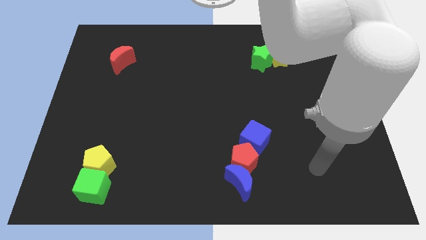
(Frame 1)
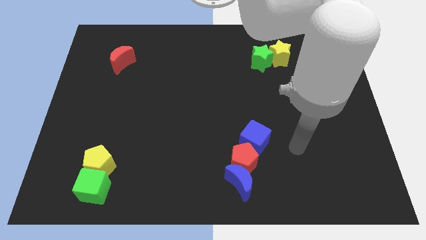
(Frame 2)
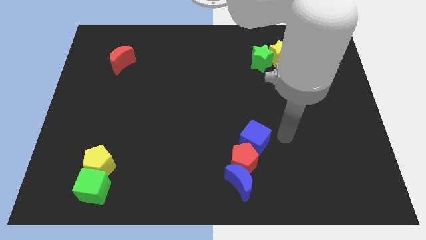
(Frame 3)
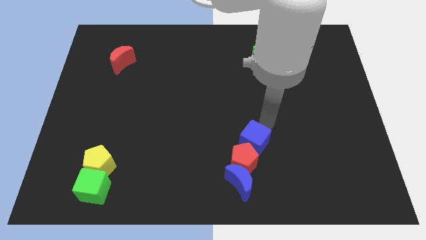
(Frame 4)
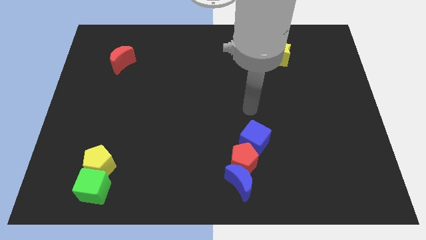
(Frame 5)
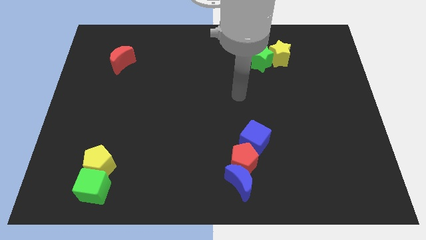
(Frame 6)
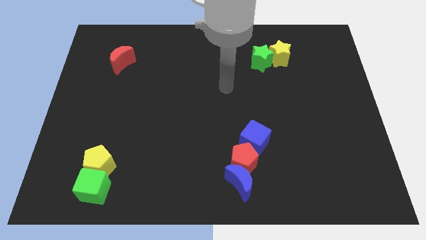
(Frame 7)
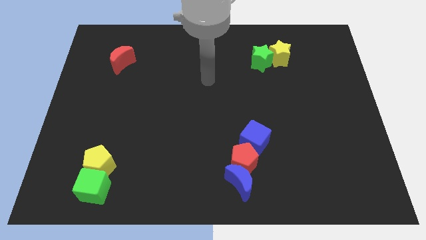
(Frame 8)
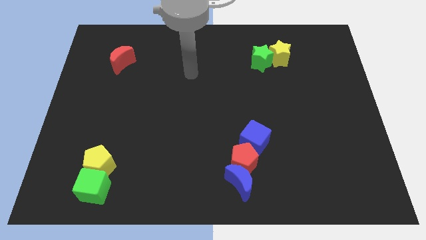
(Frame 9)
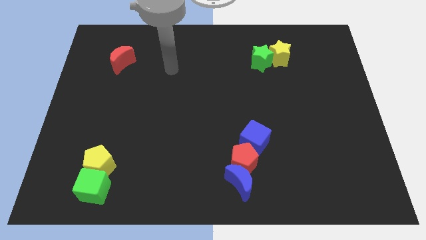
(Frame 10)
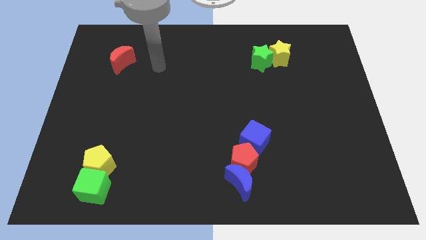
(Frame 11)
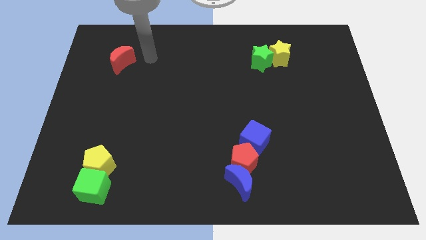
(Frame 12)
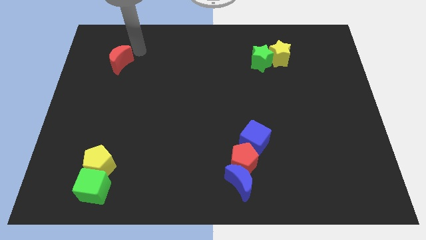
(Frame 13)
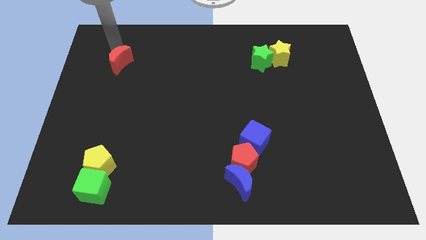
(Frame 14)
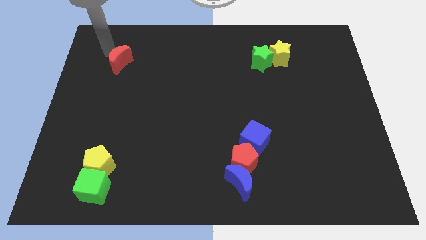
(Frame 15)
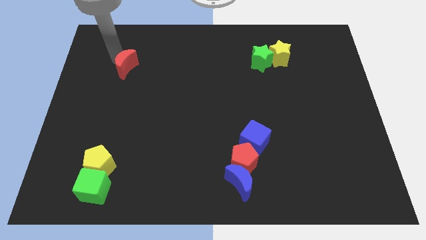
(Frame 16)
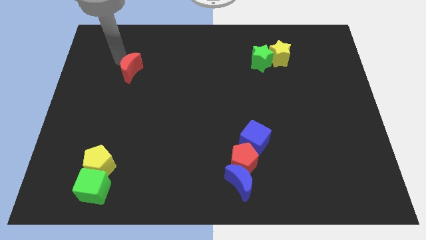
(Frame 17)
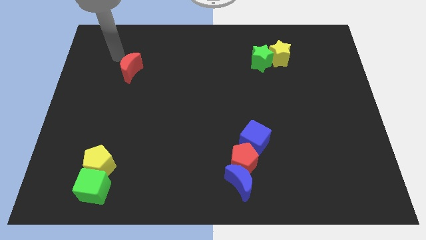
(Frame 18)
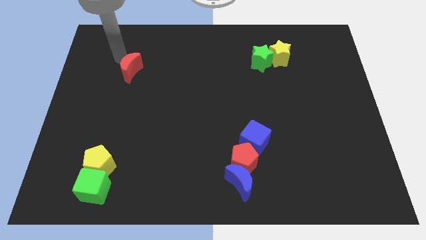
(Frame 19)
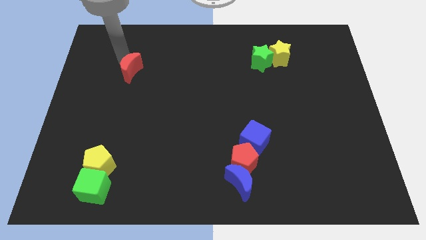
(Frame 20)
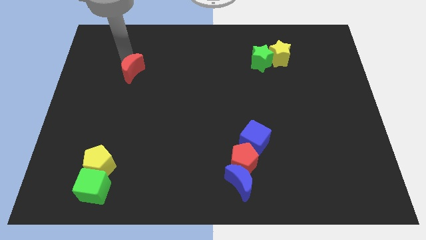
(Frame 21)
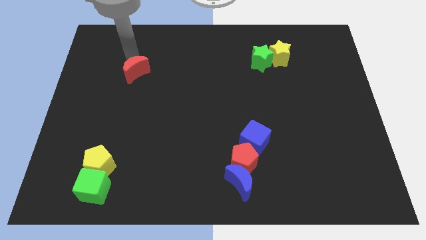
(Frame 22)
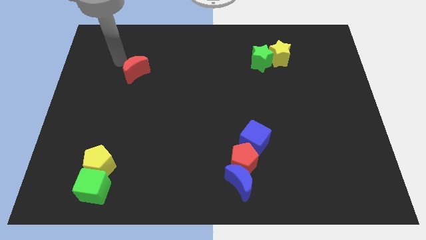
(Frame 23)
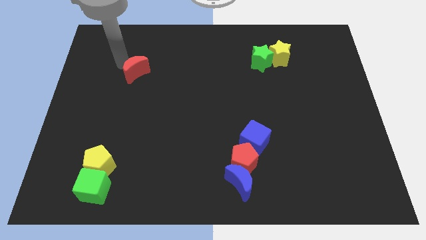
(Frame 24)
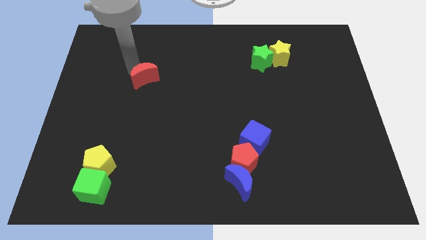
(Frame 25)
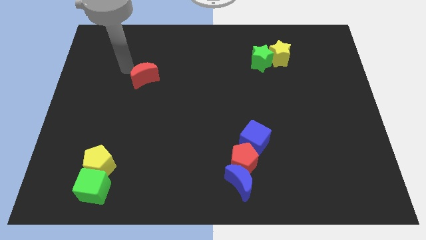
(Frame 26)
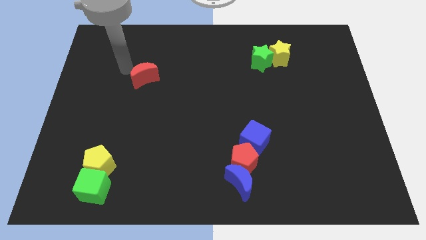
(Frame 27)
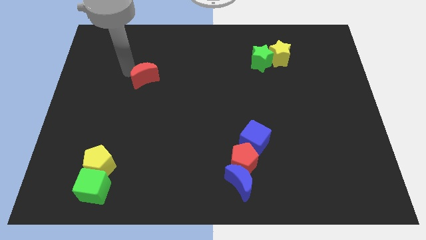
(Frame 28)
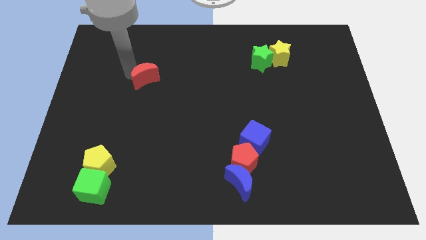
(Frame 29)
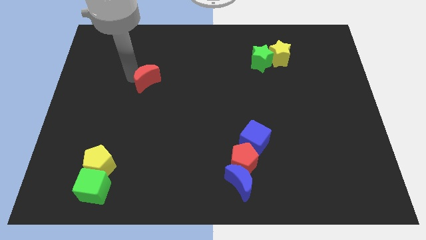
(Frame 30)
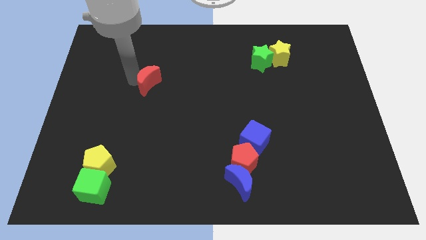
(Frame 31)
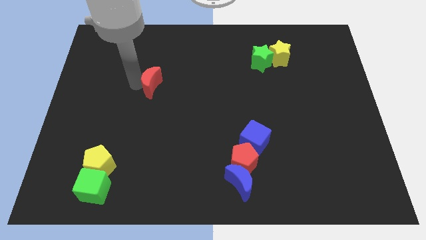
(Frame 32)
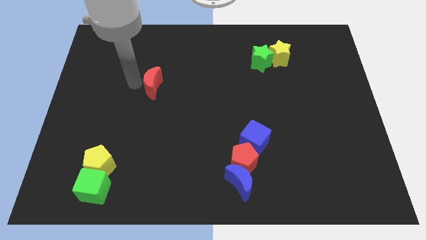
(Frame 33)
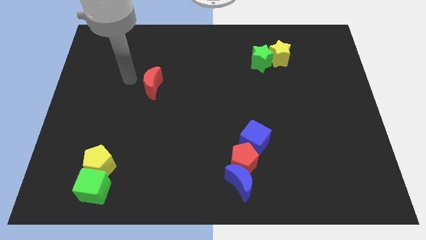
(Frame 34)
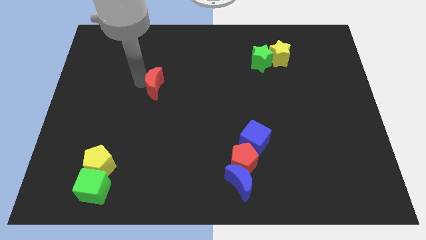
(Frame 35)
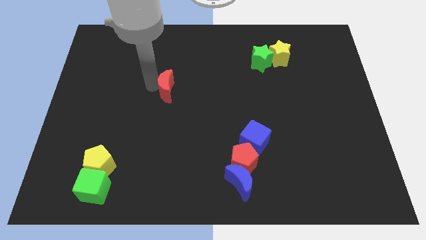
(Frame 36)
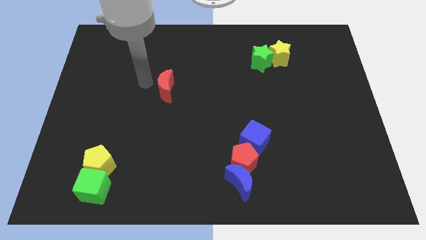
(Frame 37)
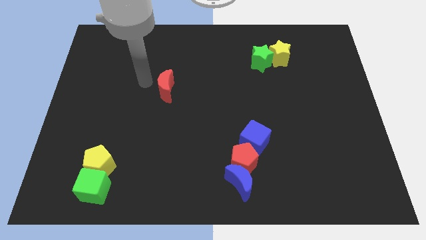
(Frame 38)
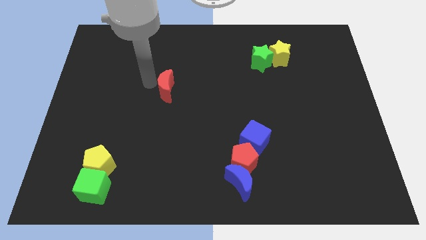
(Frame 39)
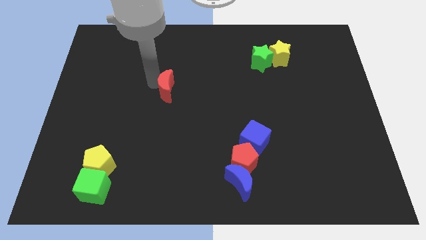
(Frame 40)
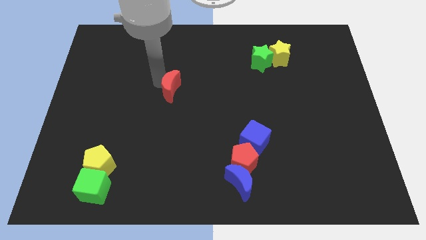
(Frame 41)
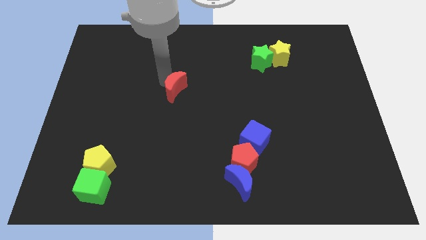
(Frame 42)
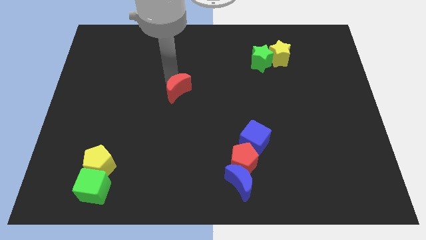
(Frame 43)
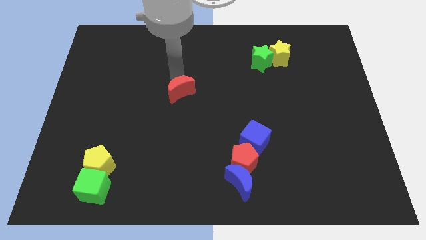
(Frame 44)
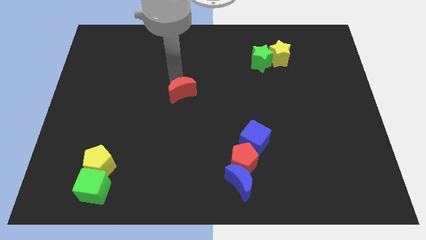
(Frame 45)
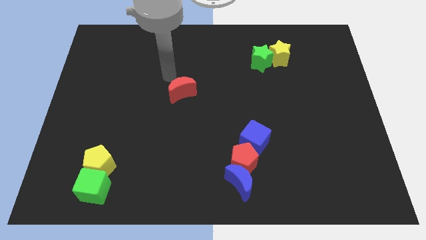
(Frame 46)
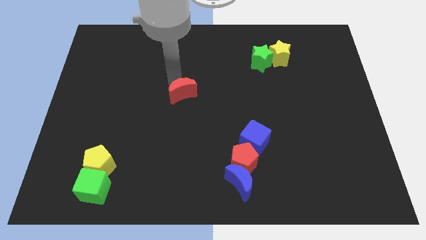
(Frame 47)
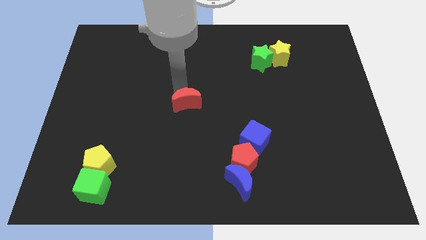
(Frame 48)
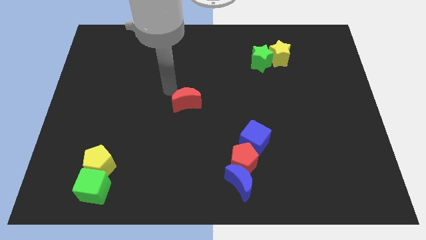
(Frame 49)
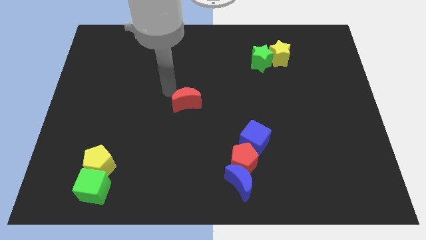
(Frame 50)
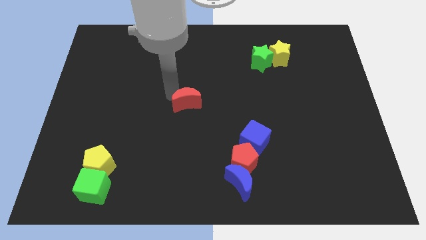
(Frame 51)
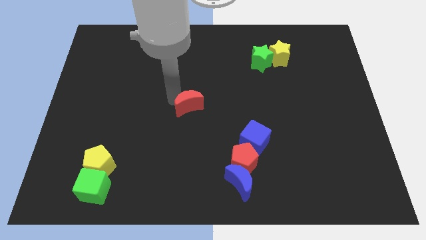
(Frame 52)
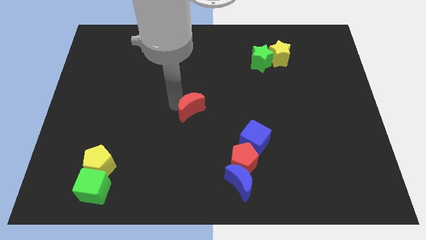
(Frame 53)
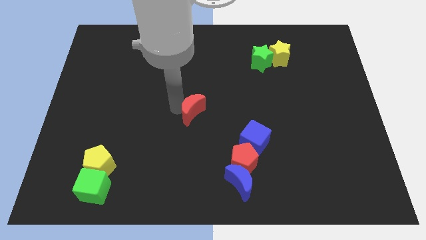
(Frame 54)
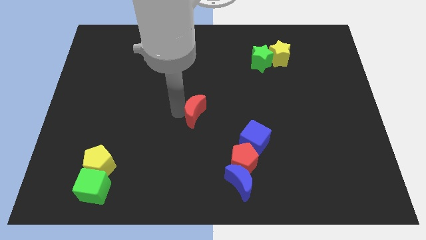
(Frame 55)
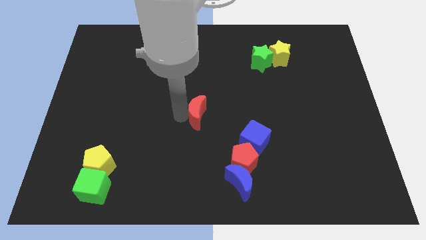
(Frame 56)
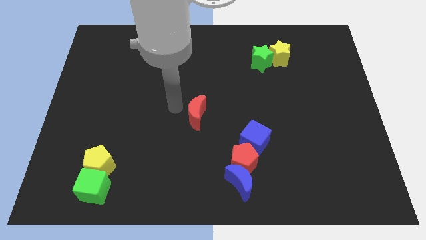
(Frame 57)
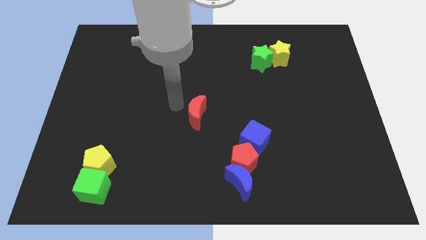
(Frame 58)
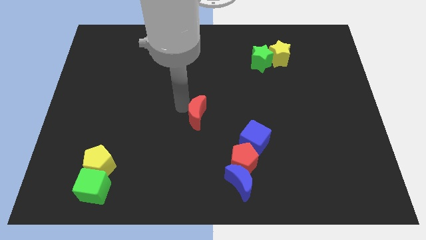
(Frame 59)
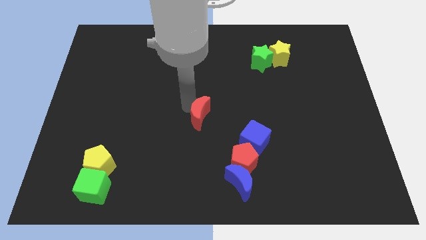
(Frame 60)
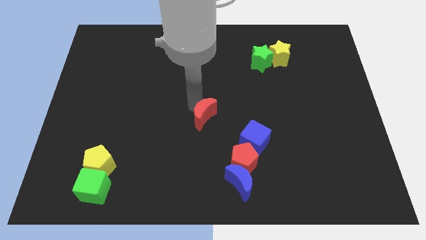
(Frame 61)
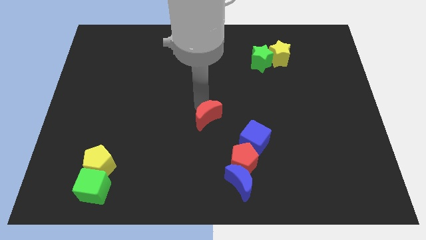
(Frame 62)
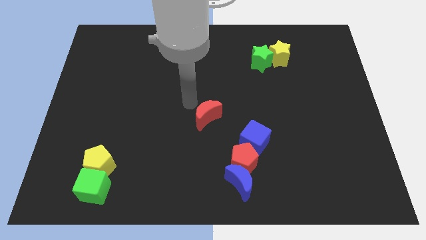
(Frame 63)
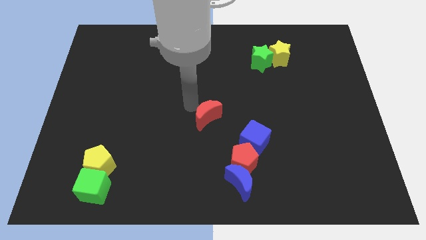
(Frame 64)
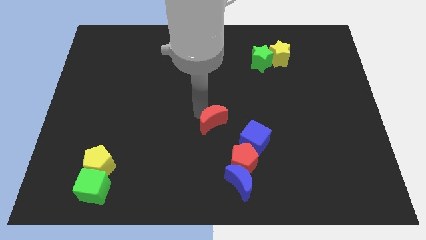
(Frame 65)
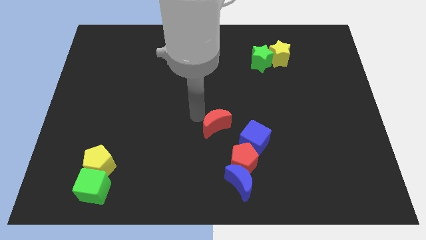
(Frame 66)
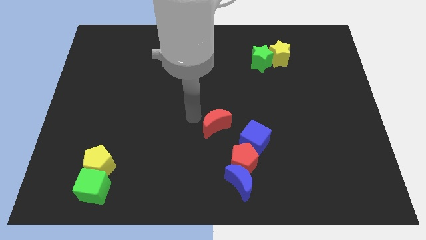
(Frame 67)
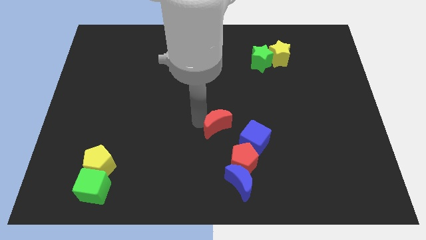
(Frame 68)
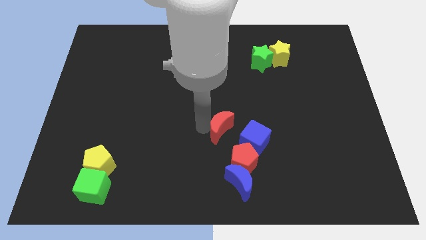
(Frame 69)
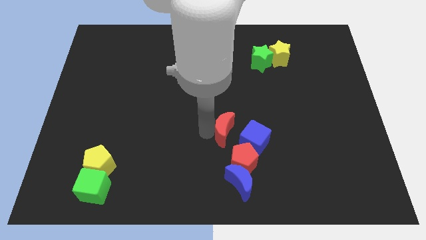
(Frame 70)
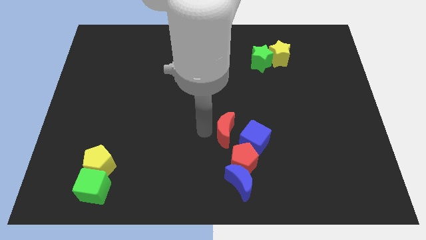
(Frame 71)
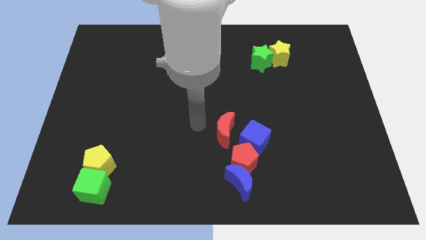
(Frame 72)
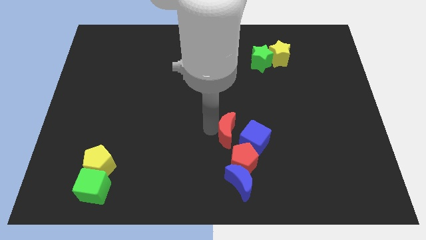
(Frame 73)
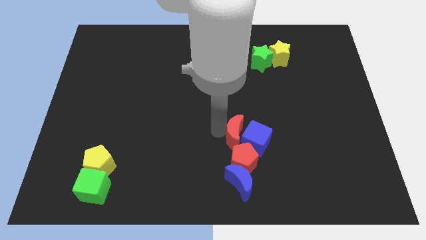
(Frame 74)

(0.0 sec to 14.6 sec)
put the red moon close to the blue cube

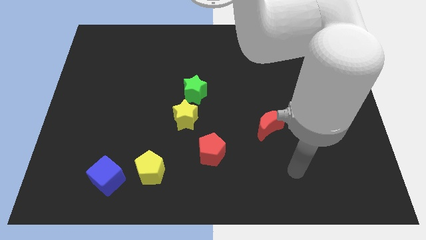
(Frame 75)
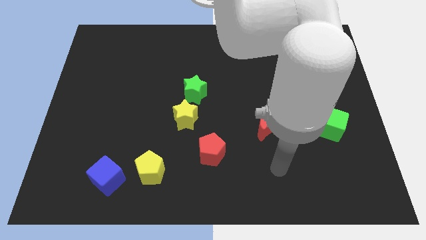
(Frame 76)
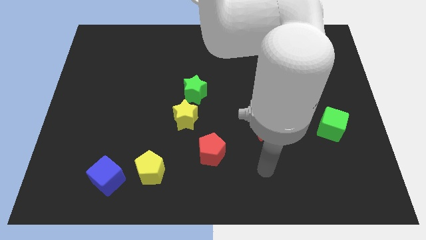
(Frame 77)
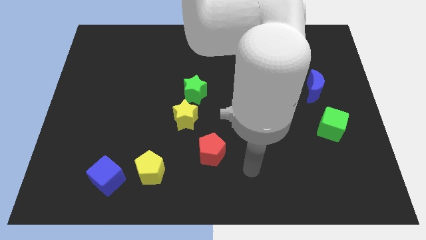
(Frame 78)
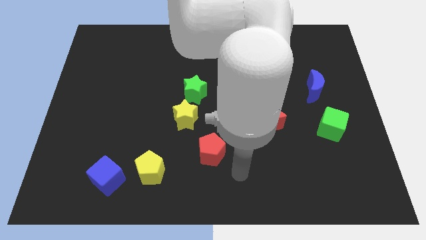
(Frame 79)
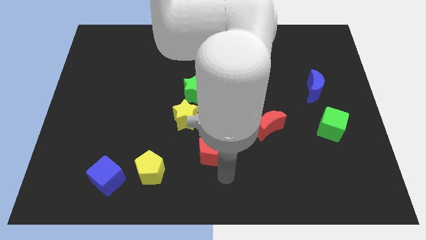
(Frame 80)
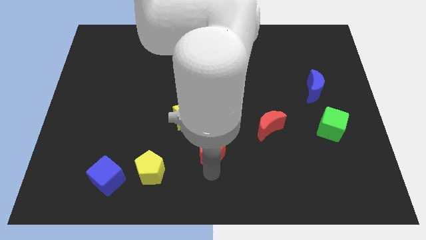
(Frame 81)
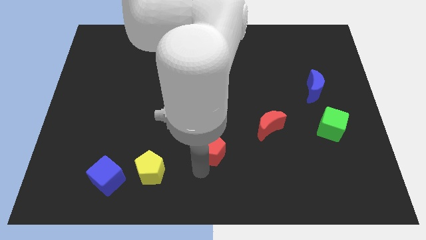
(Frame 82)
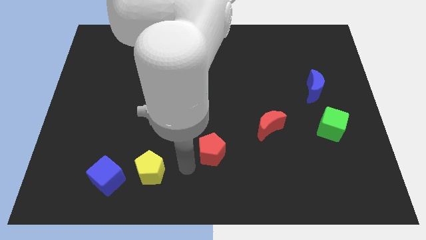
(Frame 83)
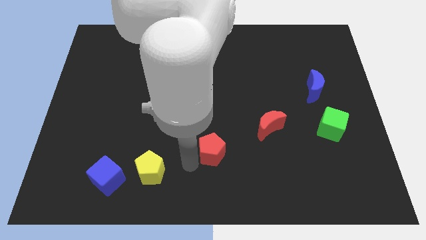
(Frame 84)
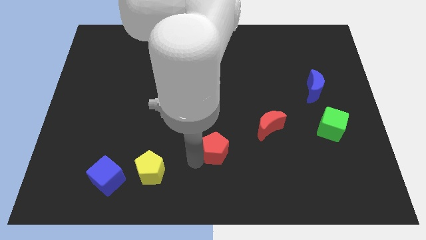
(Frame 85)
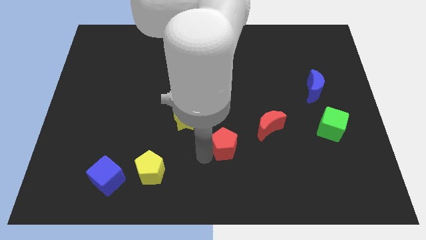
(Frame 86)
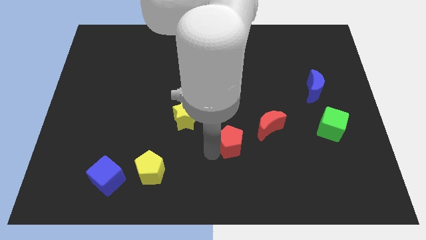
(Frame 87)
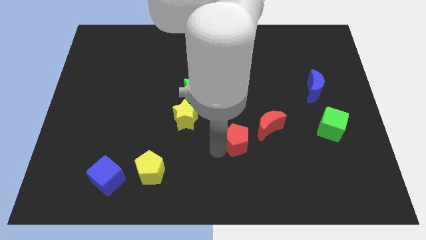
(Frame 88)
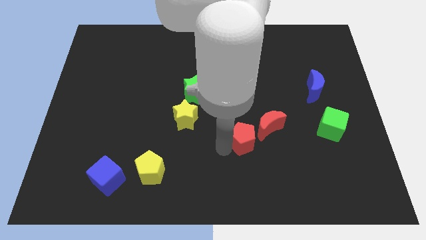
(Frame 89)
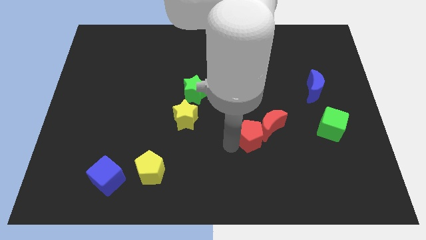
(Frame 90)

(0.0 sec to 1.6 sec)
put the red pentagon towards the red moon
